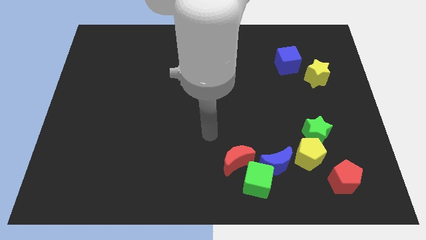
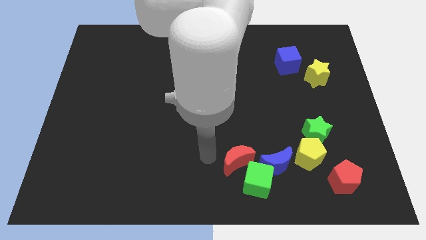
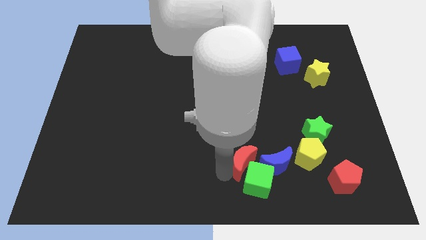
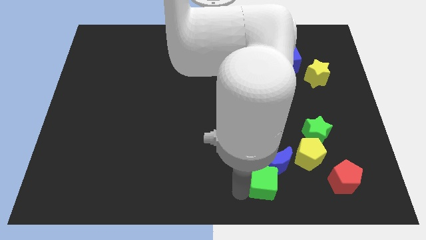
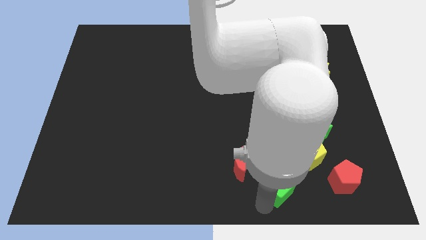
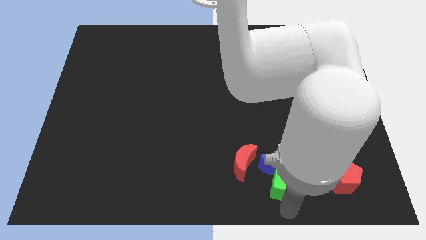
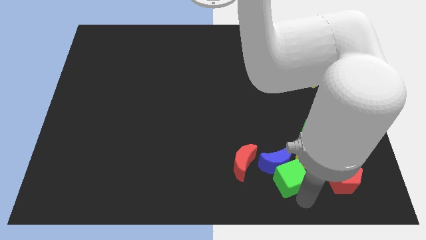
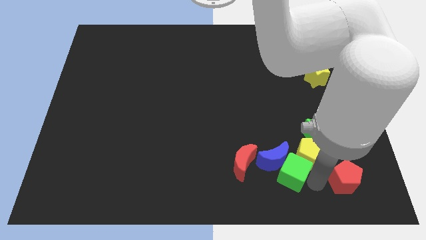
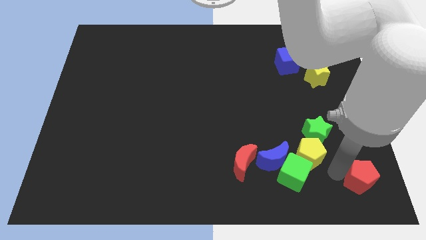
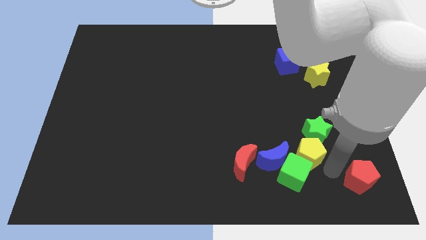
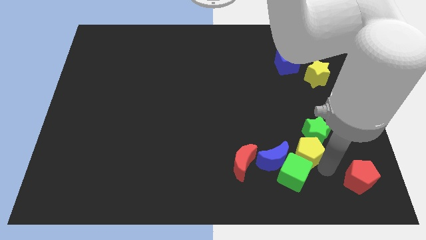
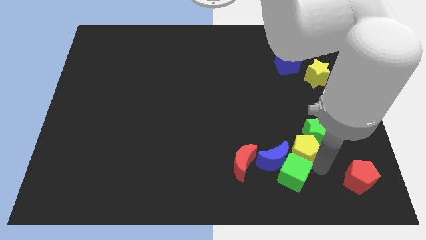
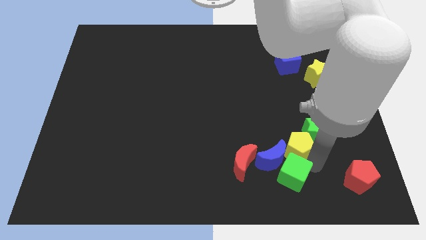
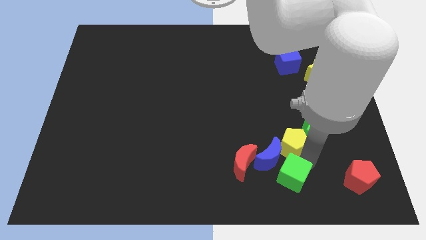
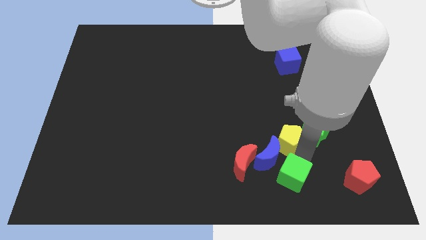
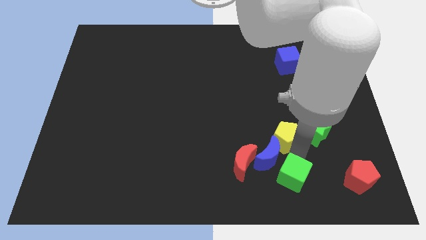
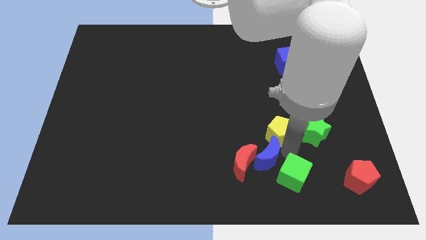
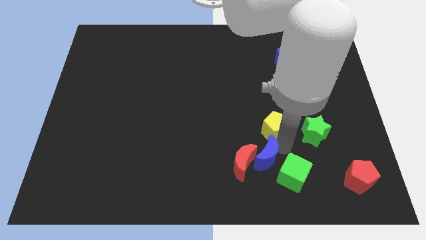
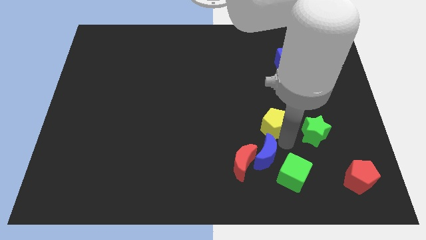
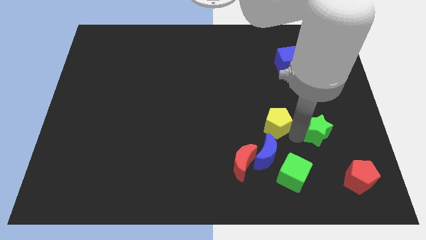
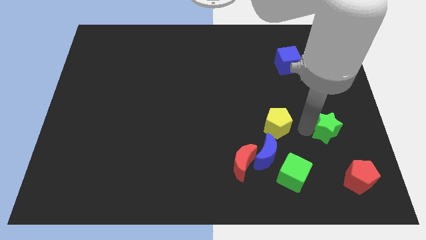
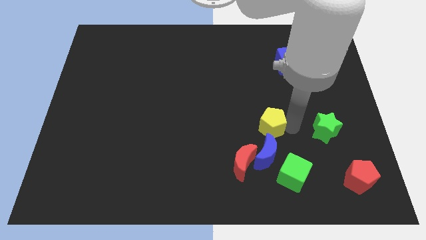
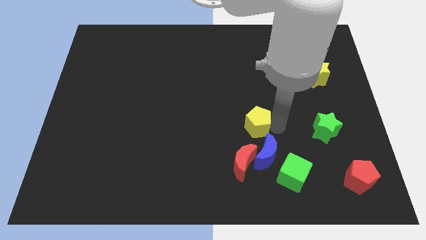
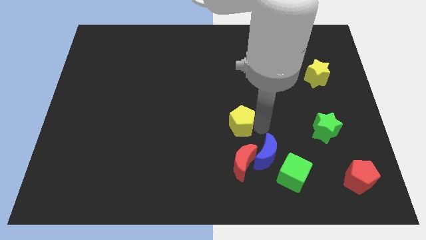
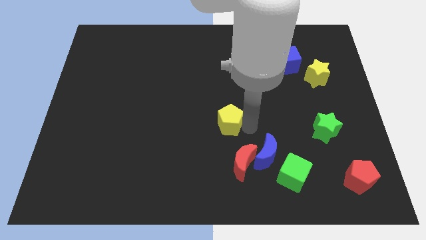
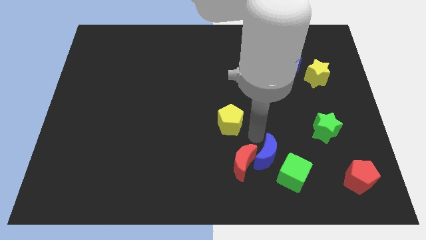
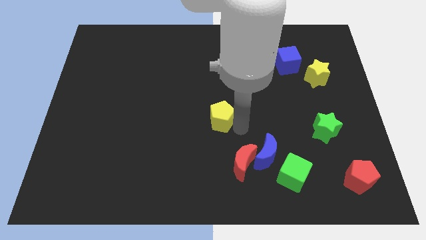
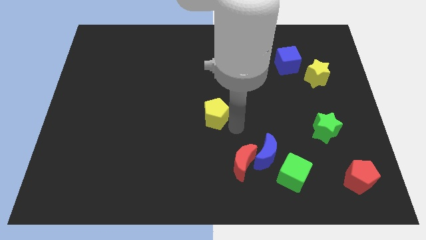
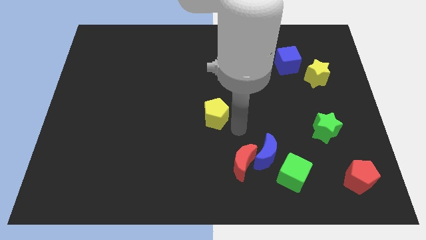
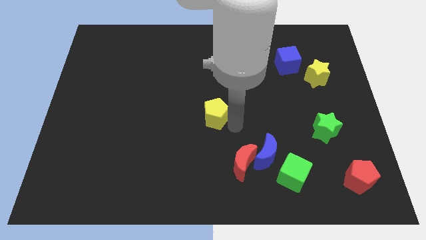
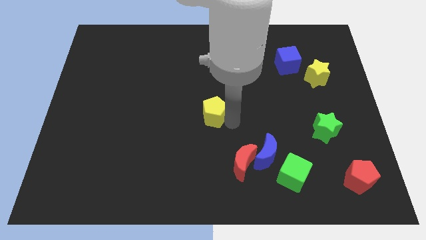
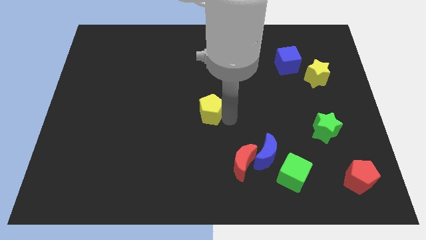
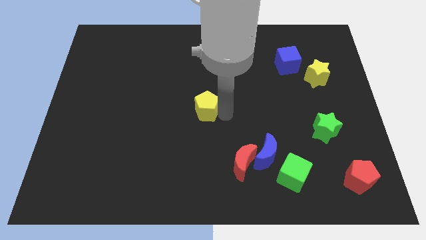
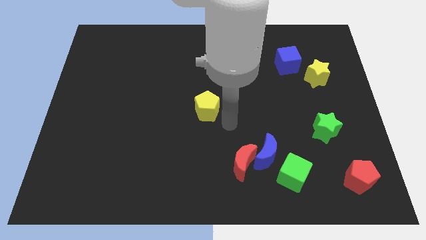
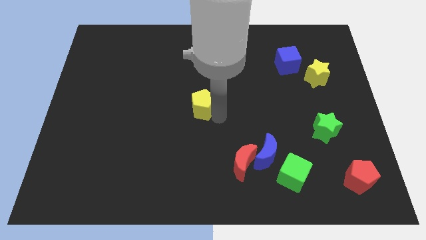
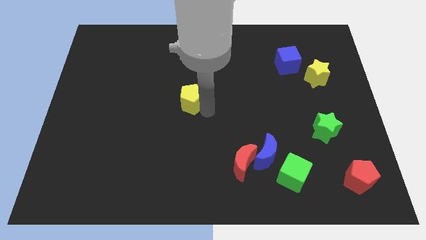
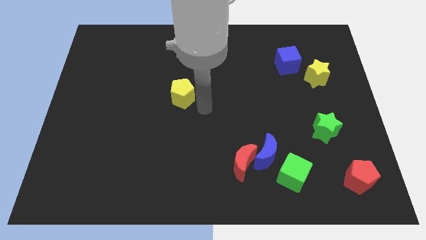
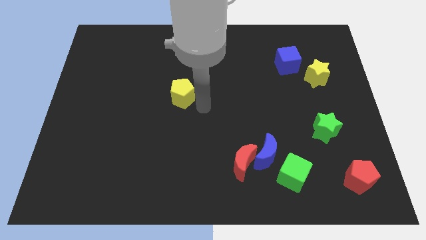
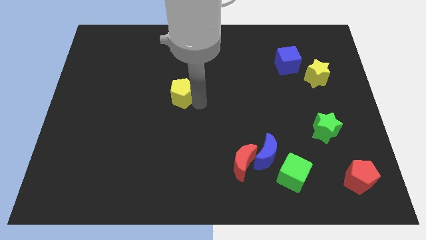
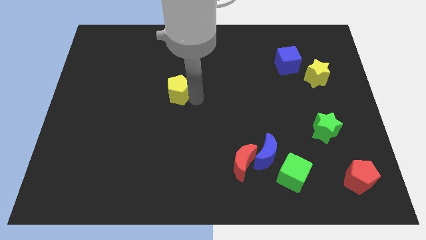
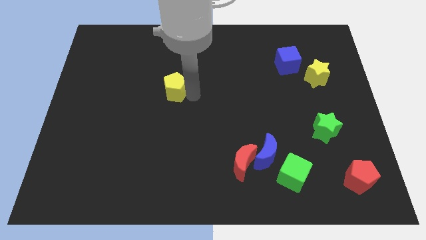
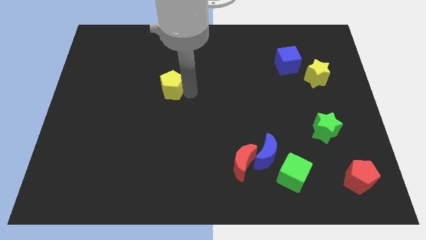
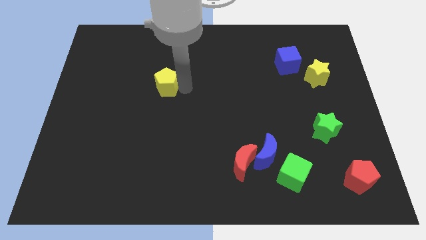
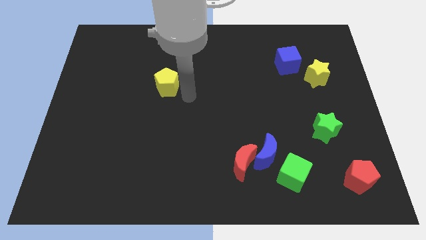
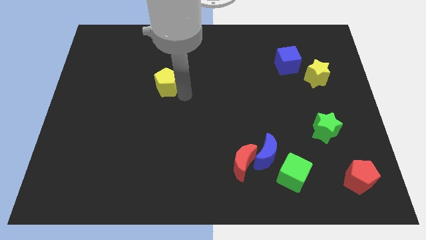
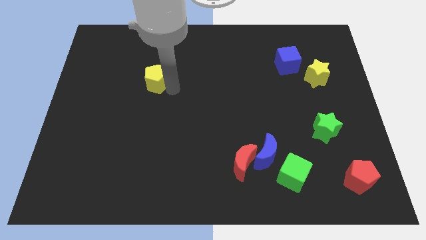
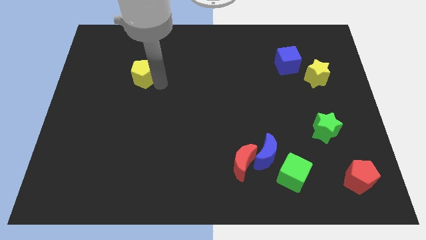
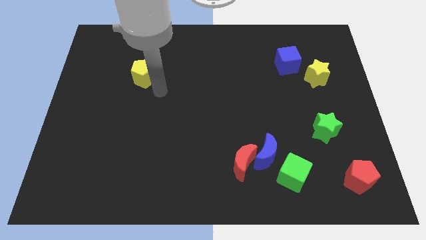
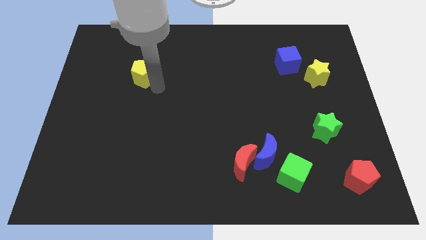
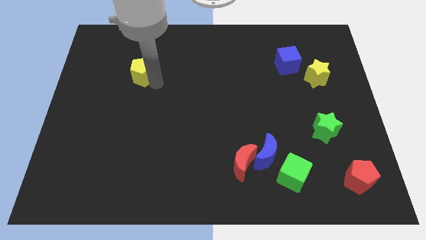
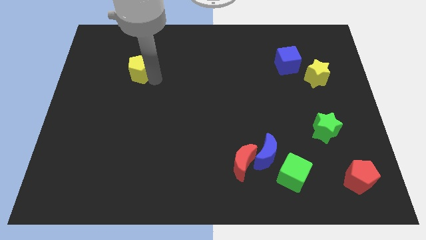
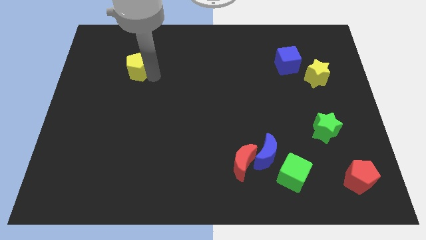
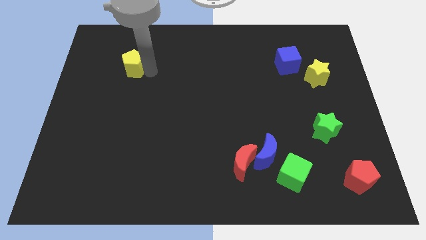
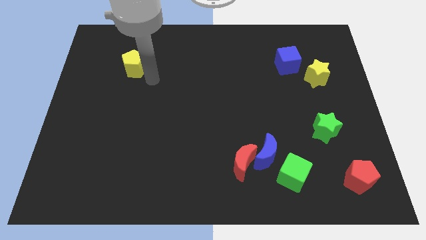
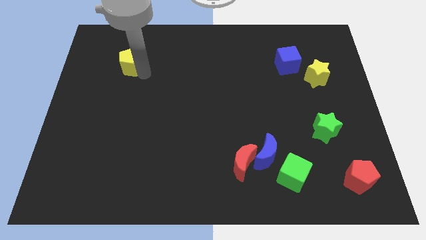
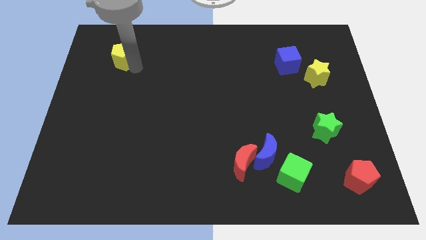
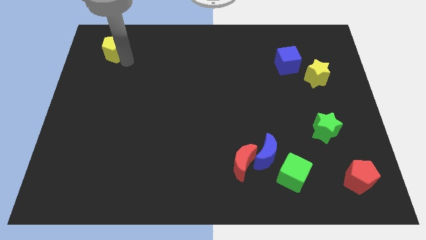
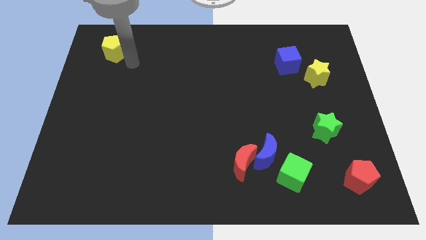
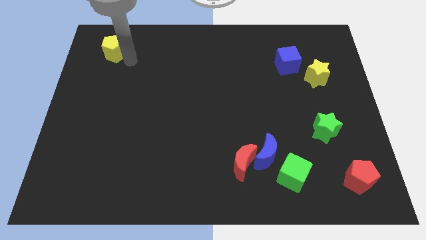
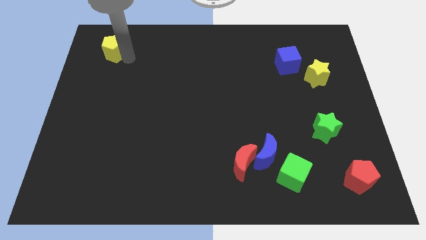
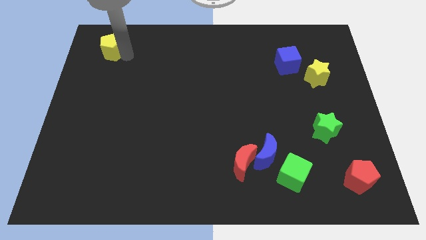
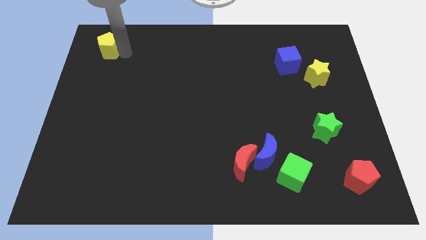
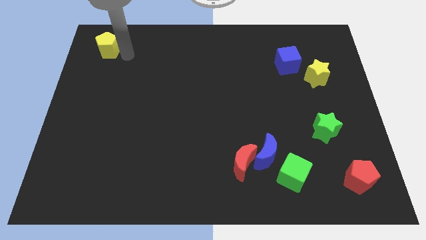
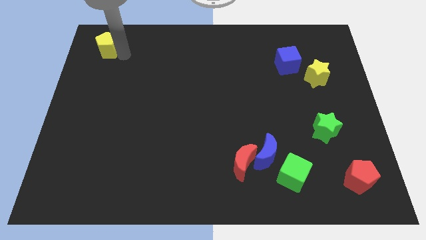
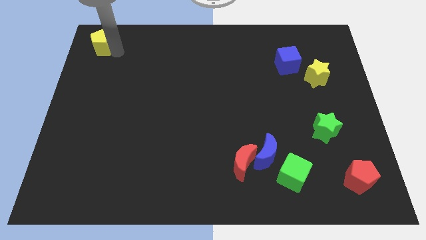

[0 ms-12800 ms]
push the yellow pentagon to the upper left corner
